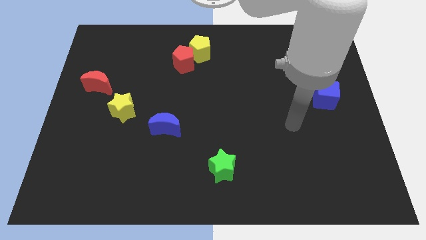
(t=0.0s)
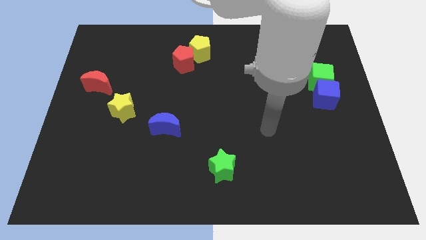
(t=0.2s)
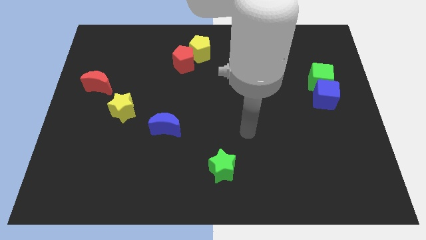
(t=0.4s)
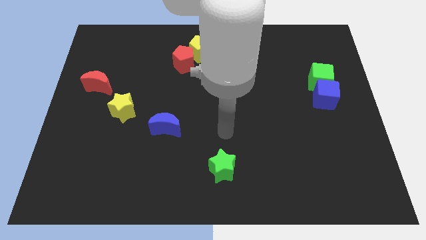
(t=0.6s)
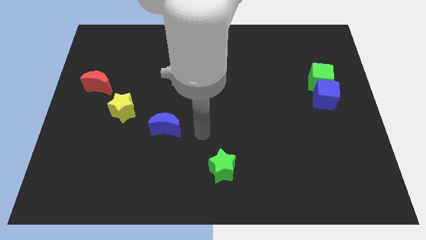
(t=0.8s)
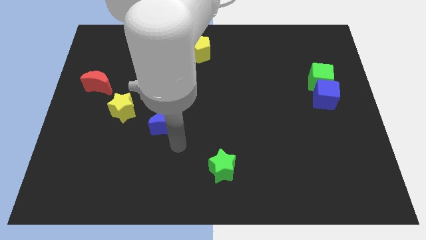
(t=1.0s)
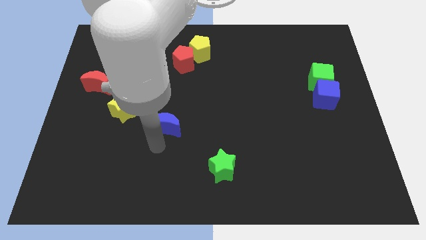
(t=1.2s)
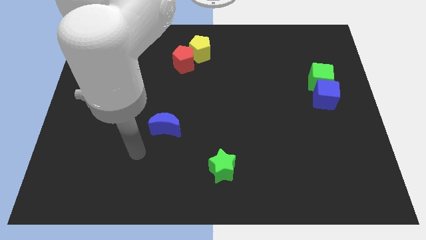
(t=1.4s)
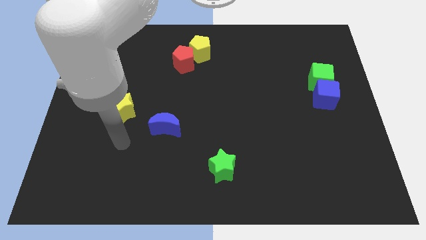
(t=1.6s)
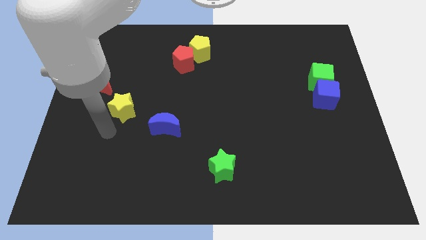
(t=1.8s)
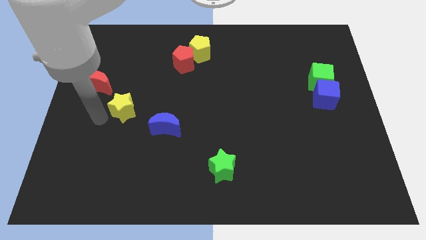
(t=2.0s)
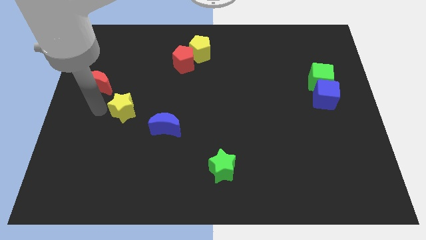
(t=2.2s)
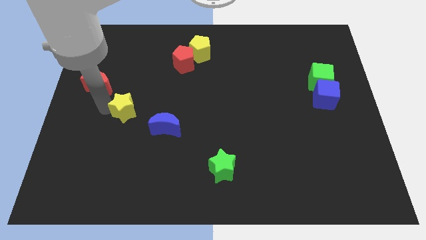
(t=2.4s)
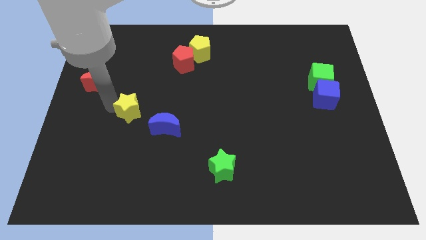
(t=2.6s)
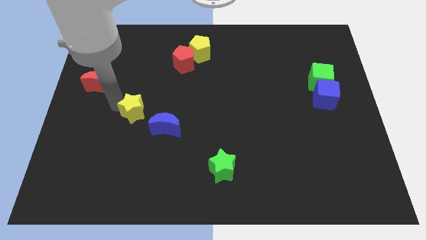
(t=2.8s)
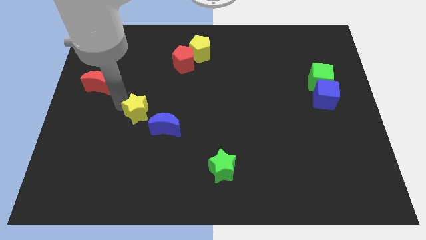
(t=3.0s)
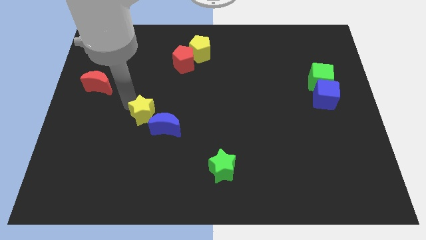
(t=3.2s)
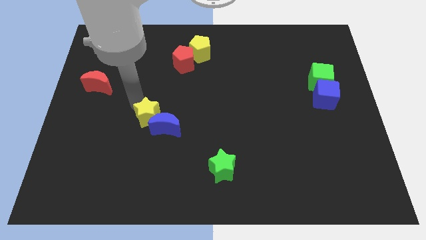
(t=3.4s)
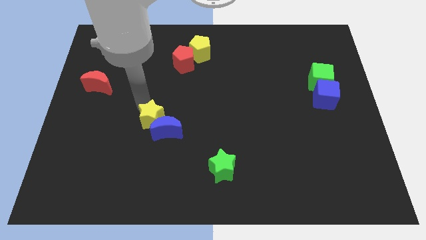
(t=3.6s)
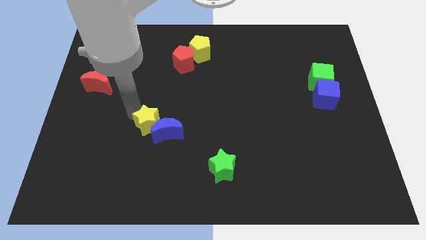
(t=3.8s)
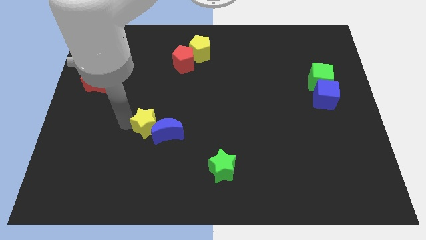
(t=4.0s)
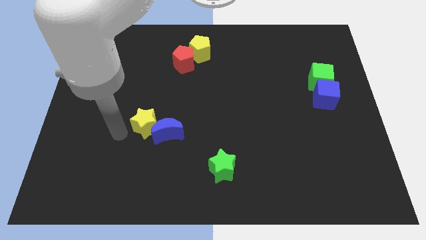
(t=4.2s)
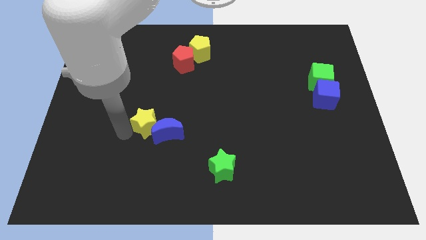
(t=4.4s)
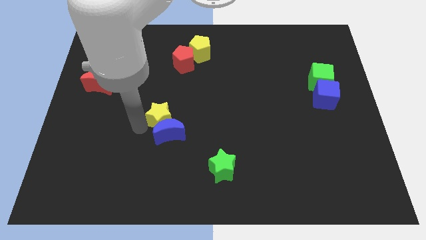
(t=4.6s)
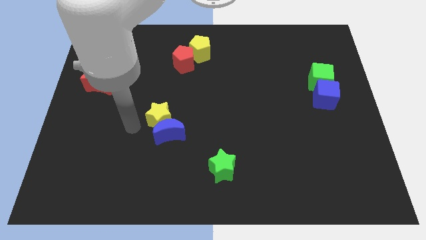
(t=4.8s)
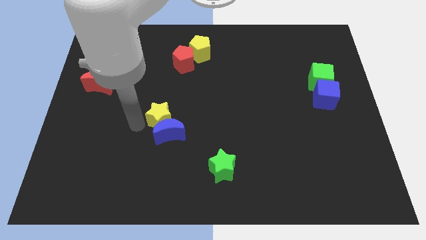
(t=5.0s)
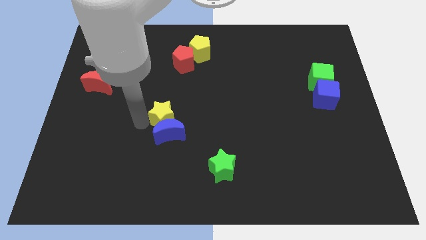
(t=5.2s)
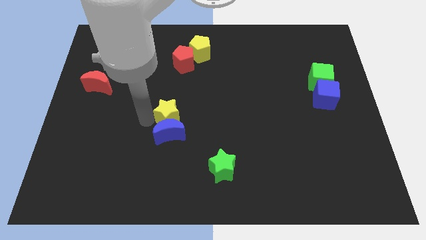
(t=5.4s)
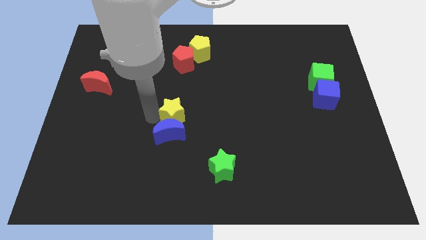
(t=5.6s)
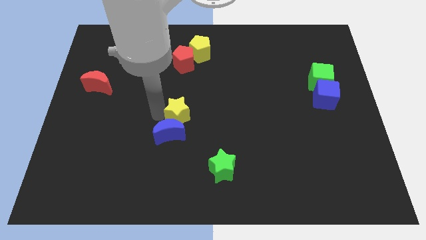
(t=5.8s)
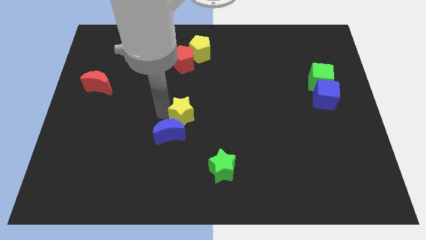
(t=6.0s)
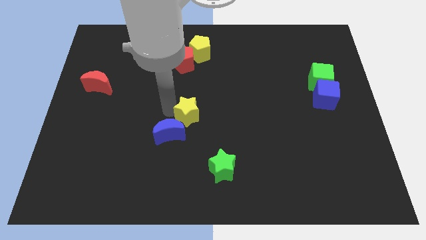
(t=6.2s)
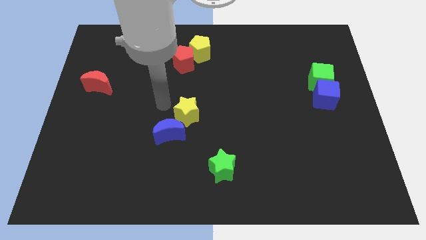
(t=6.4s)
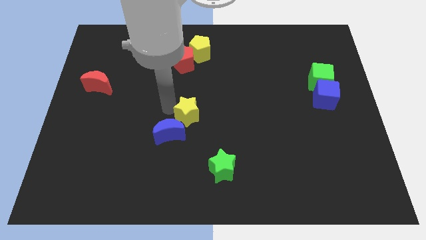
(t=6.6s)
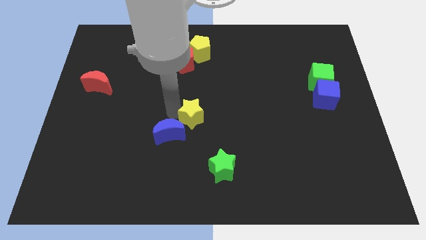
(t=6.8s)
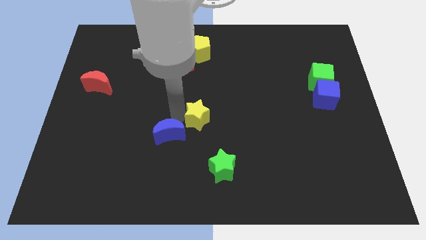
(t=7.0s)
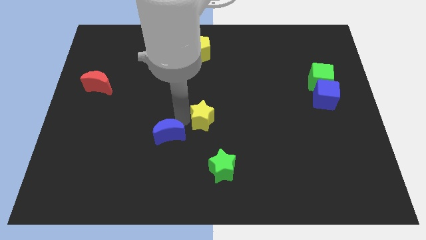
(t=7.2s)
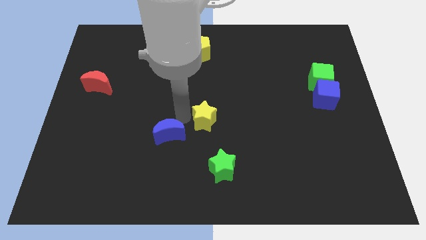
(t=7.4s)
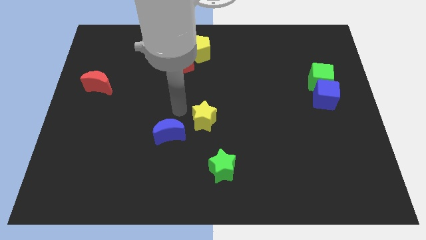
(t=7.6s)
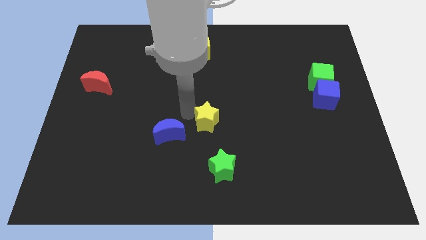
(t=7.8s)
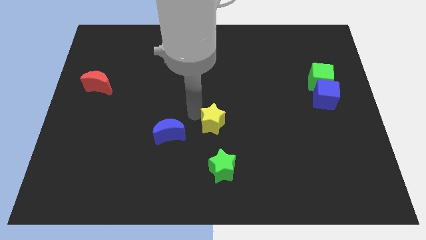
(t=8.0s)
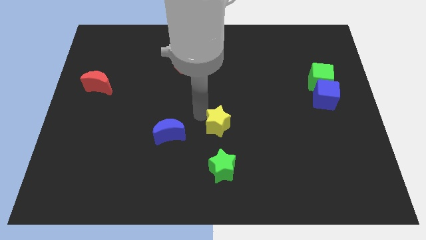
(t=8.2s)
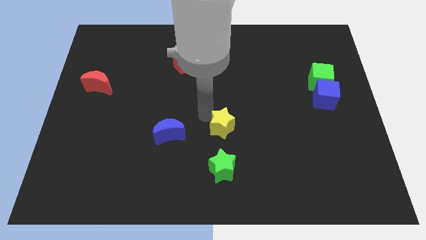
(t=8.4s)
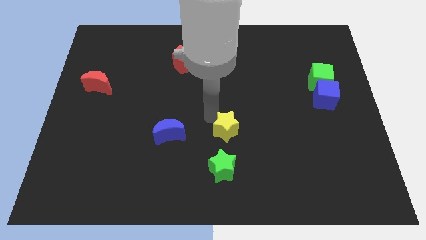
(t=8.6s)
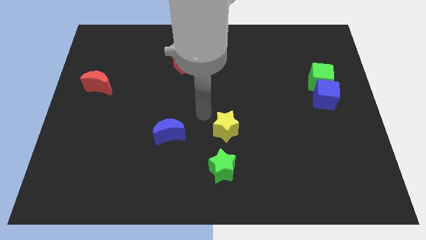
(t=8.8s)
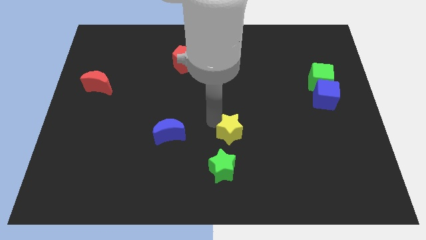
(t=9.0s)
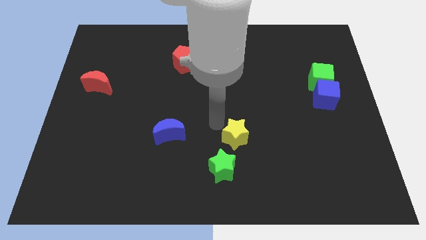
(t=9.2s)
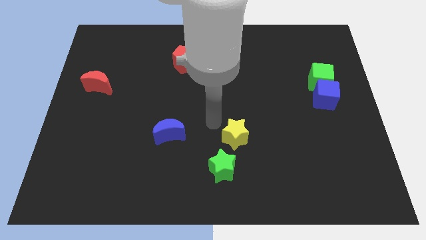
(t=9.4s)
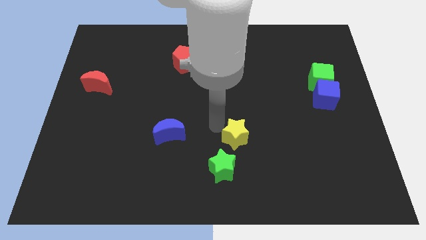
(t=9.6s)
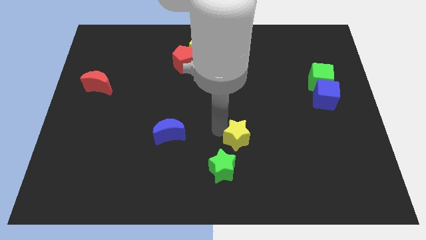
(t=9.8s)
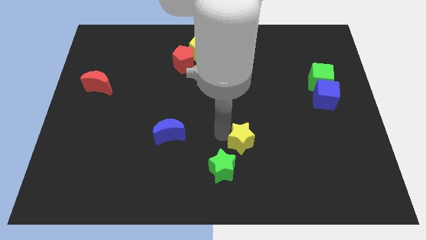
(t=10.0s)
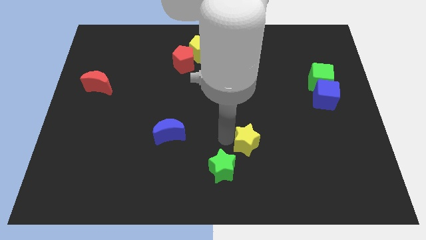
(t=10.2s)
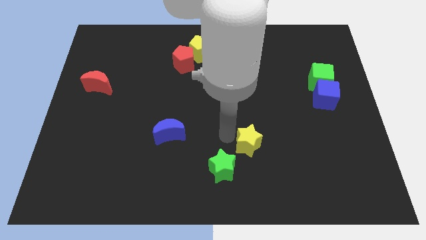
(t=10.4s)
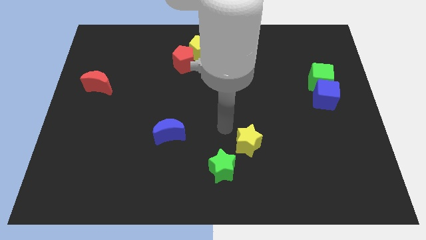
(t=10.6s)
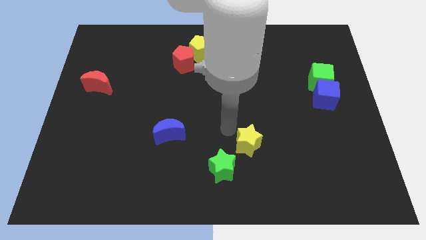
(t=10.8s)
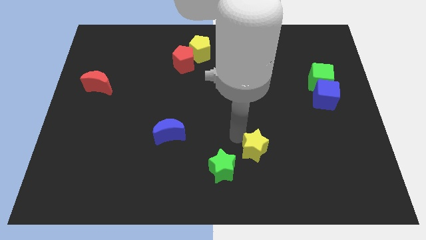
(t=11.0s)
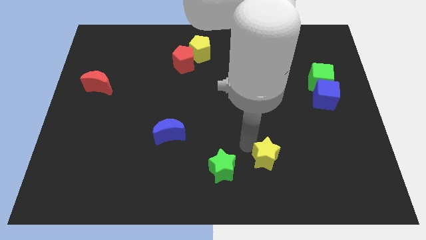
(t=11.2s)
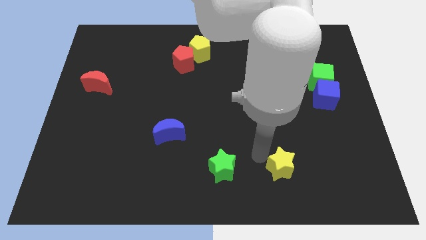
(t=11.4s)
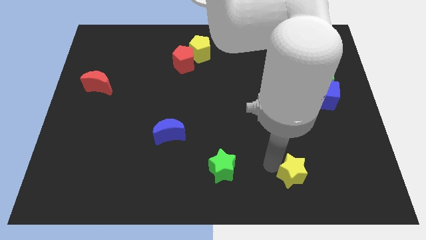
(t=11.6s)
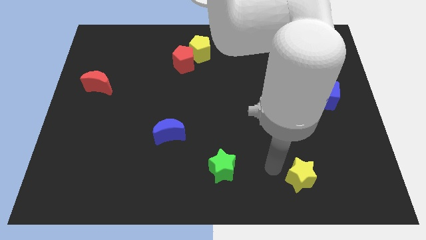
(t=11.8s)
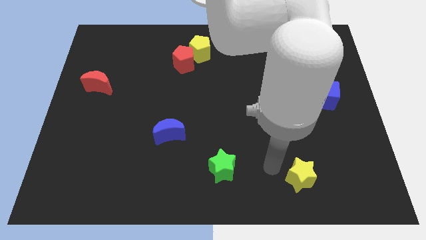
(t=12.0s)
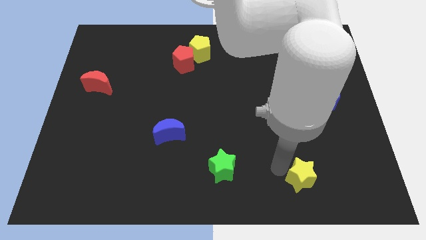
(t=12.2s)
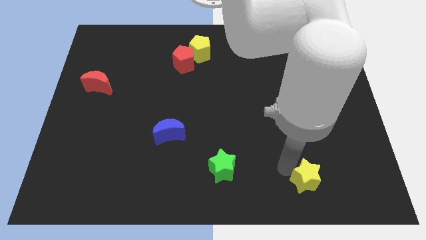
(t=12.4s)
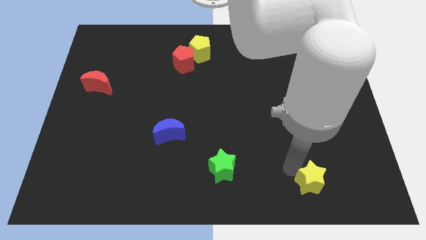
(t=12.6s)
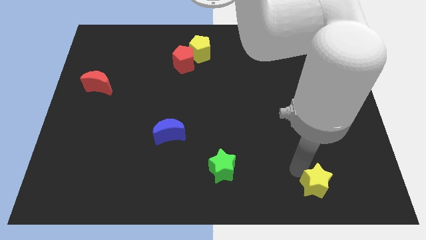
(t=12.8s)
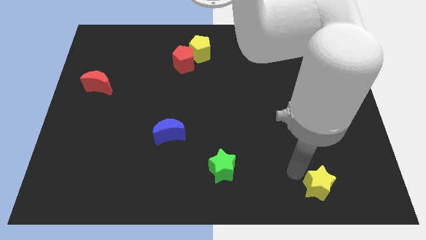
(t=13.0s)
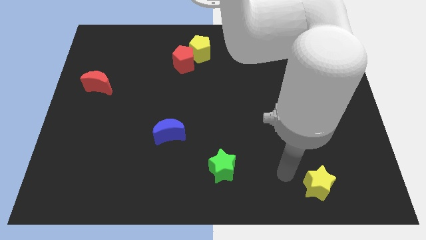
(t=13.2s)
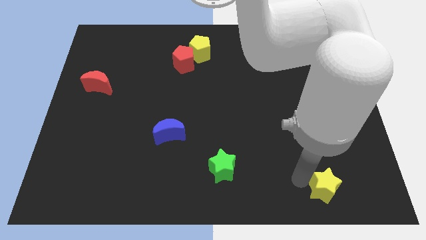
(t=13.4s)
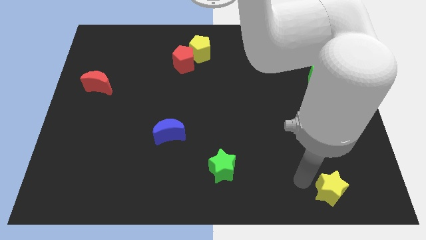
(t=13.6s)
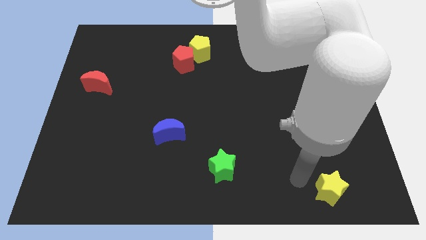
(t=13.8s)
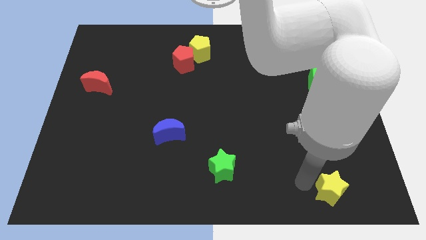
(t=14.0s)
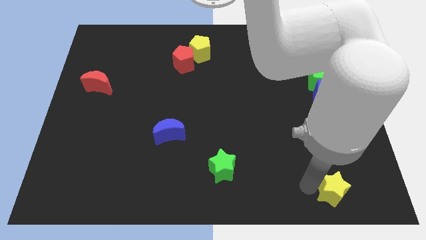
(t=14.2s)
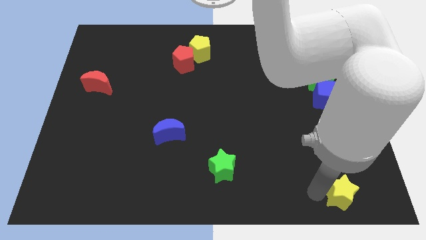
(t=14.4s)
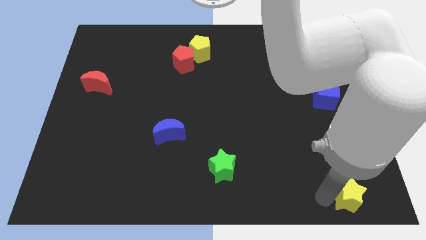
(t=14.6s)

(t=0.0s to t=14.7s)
push the yellow star to the bottom right corner

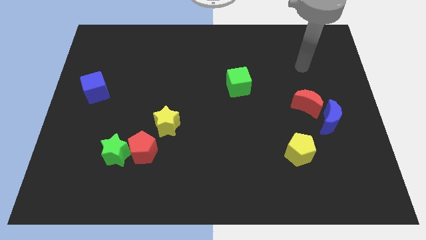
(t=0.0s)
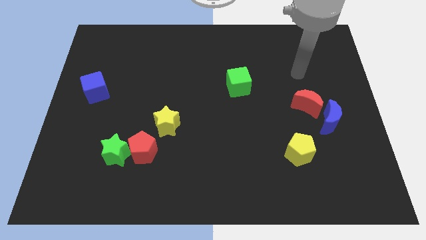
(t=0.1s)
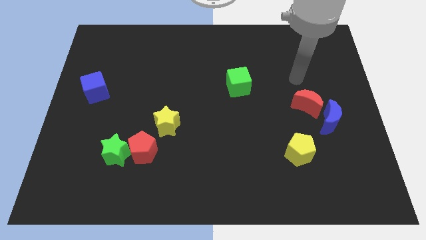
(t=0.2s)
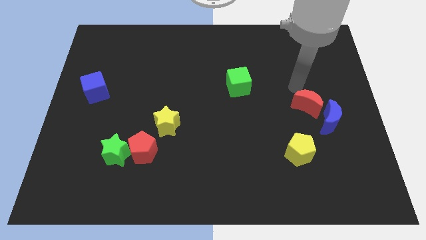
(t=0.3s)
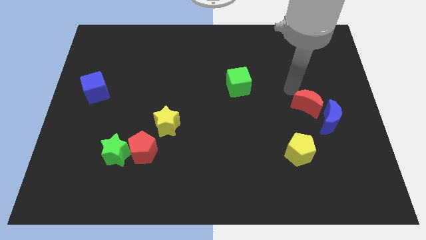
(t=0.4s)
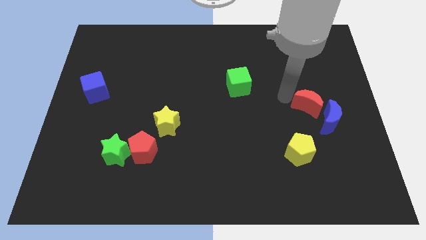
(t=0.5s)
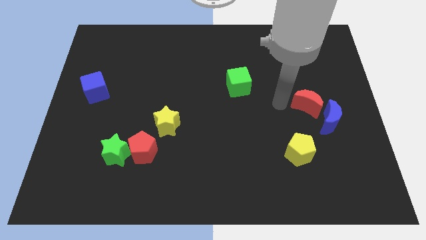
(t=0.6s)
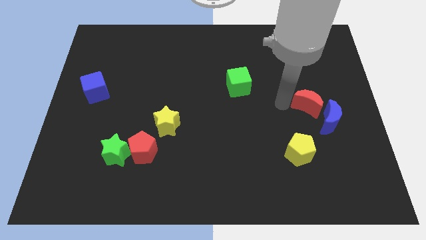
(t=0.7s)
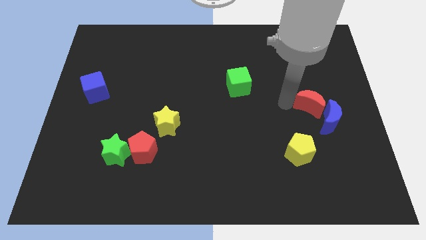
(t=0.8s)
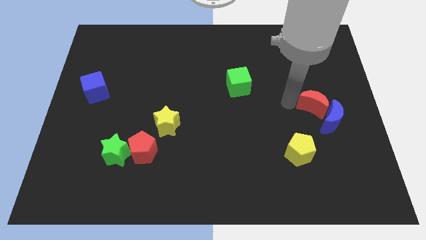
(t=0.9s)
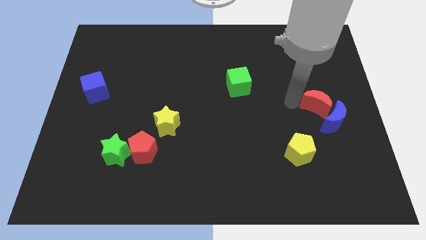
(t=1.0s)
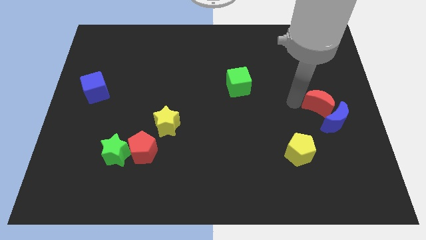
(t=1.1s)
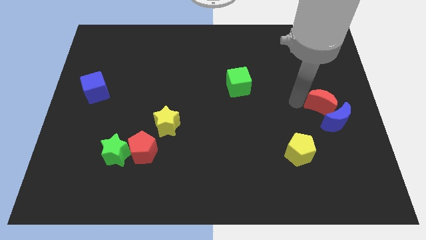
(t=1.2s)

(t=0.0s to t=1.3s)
move the red moon to the center right
